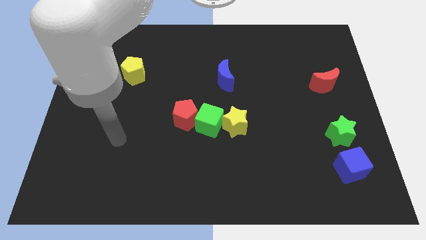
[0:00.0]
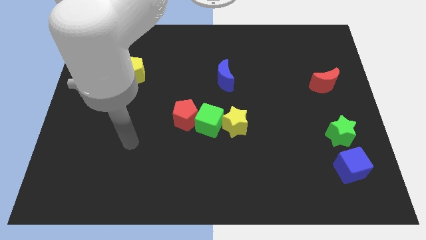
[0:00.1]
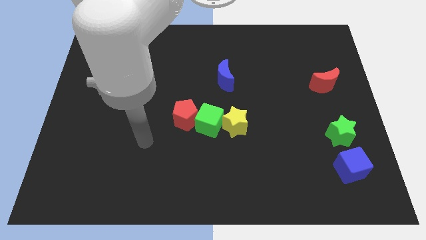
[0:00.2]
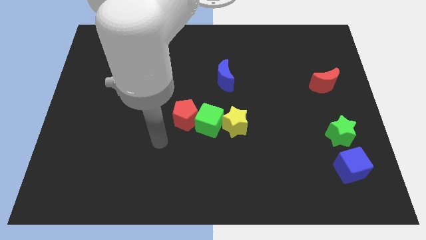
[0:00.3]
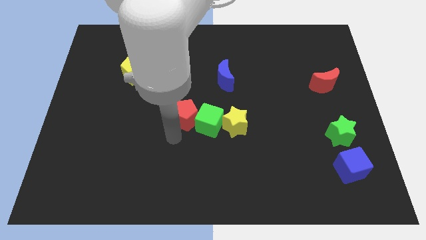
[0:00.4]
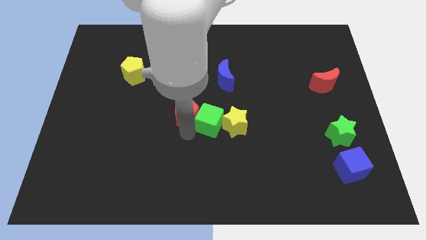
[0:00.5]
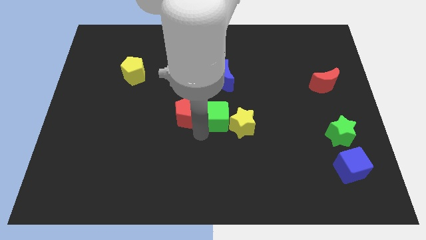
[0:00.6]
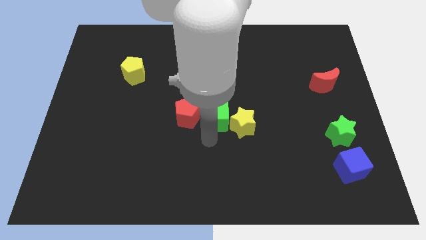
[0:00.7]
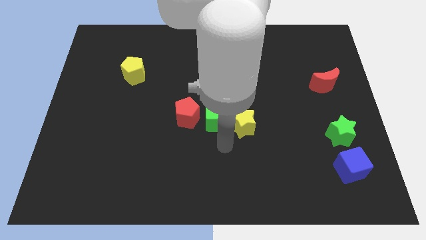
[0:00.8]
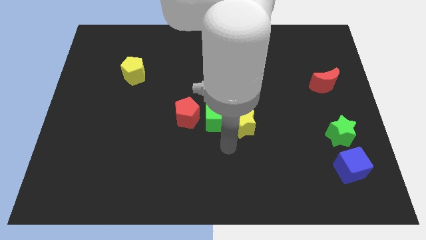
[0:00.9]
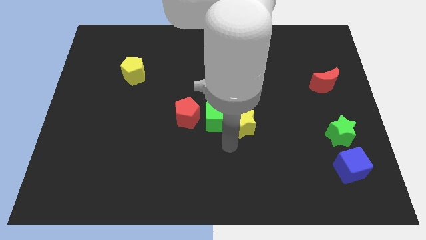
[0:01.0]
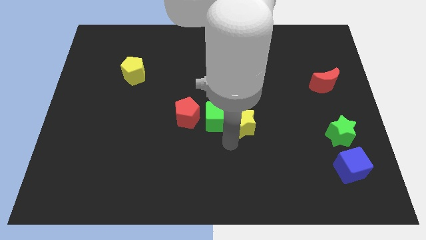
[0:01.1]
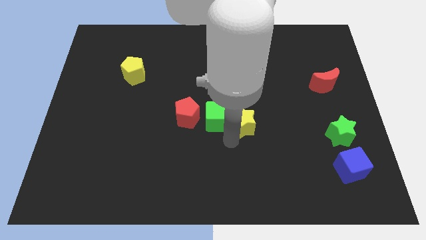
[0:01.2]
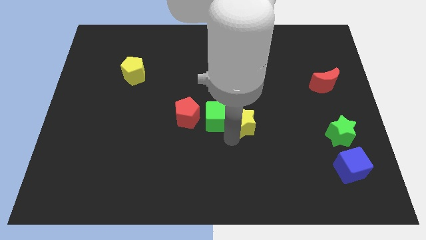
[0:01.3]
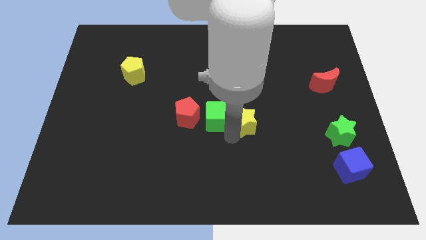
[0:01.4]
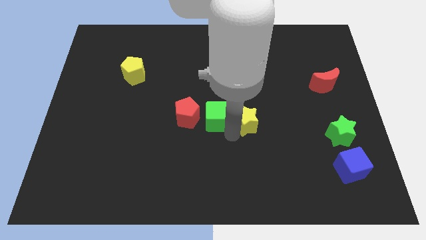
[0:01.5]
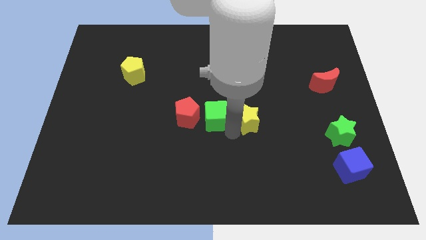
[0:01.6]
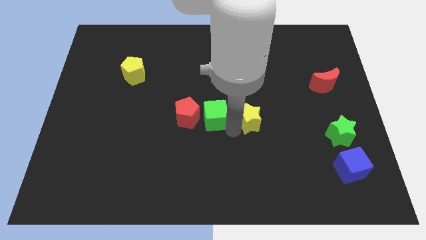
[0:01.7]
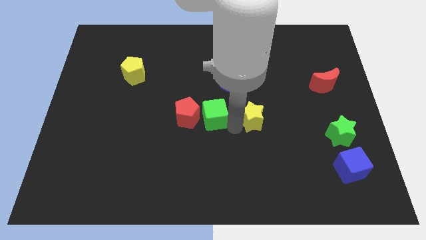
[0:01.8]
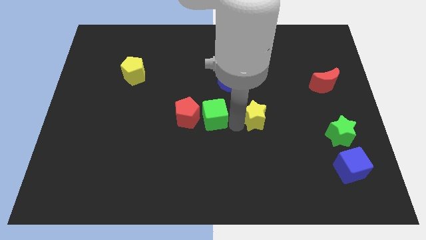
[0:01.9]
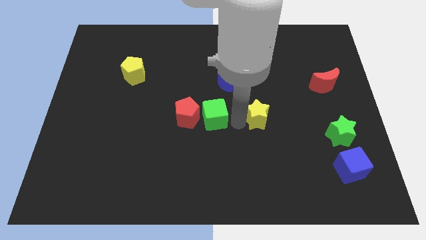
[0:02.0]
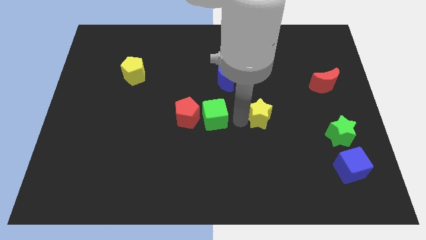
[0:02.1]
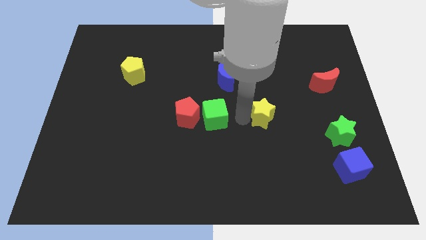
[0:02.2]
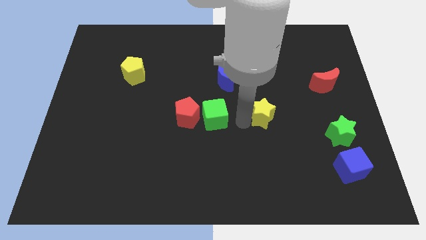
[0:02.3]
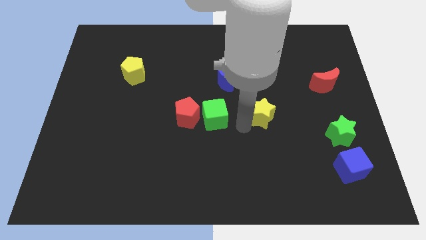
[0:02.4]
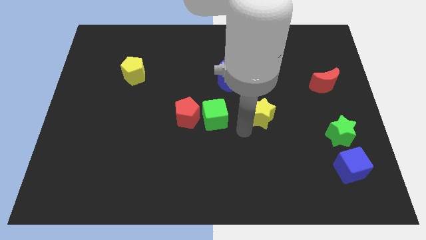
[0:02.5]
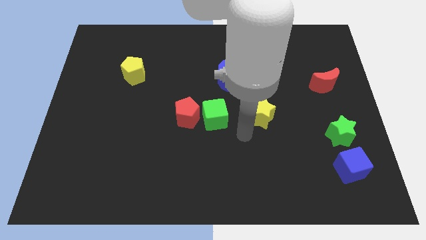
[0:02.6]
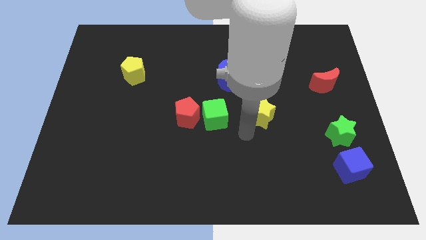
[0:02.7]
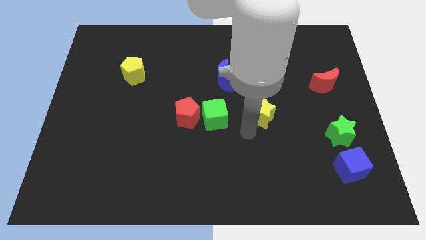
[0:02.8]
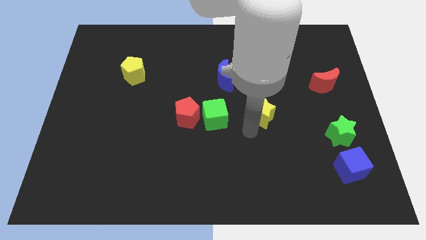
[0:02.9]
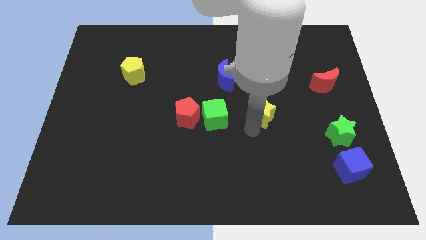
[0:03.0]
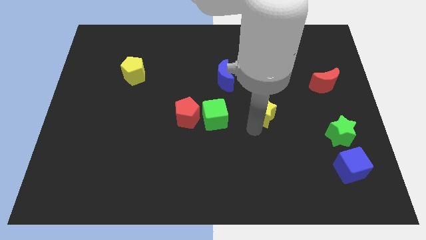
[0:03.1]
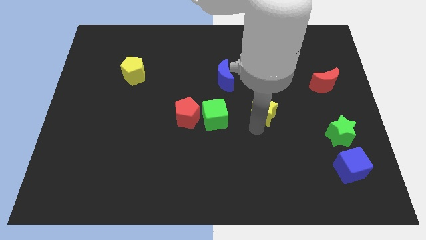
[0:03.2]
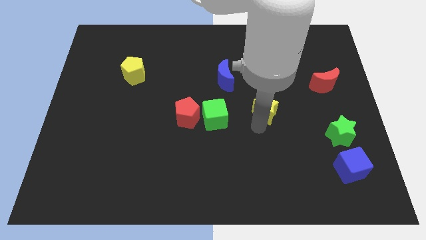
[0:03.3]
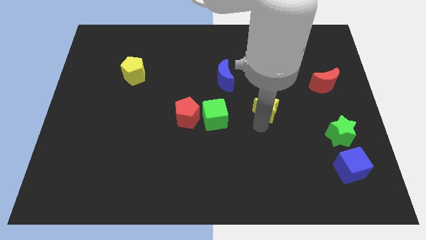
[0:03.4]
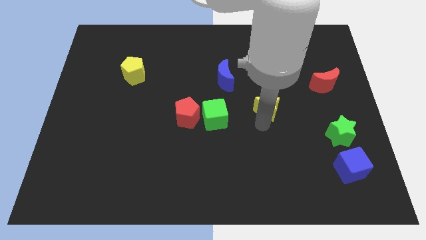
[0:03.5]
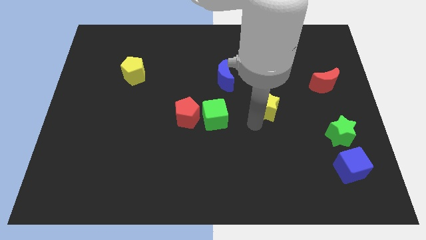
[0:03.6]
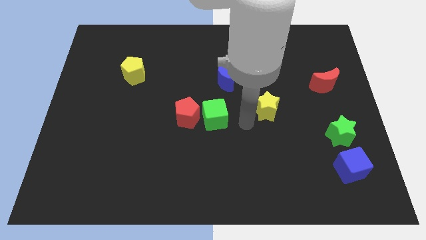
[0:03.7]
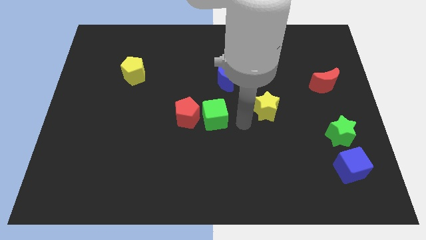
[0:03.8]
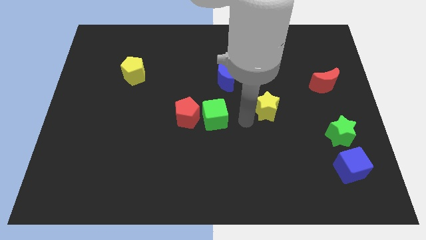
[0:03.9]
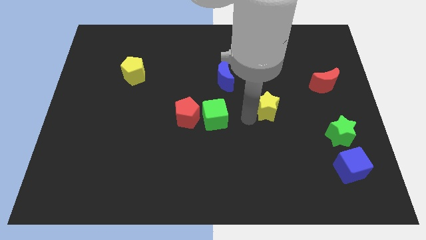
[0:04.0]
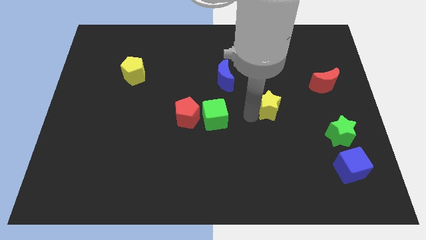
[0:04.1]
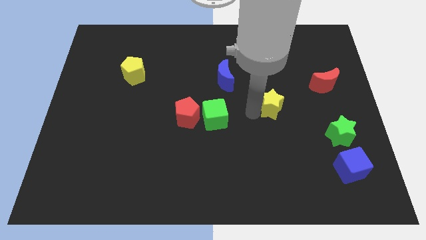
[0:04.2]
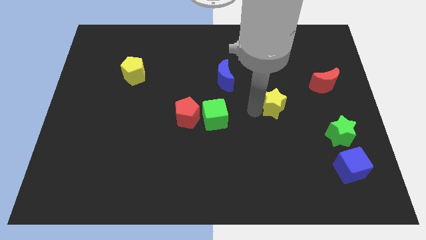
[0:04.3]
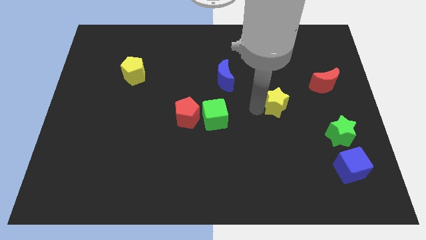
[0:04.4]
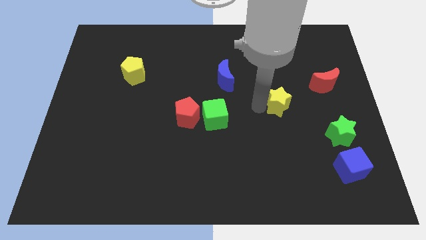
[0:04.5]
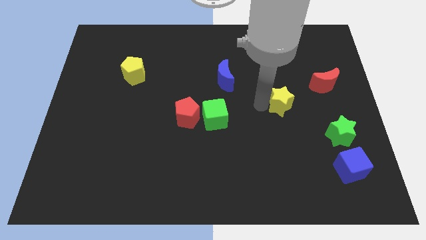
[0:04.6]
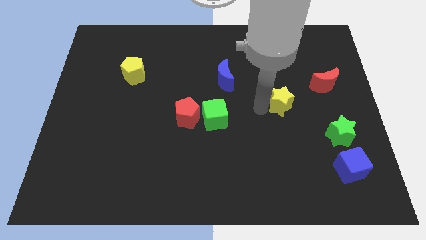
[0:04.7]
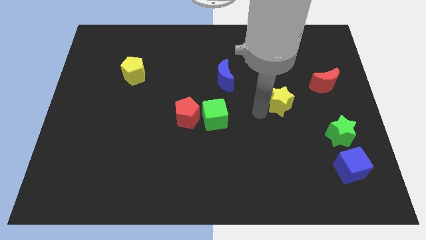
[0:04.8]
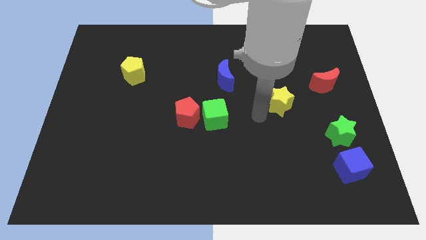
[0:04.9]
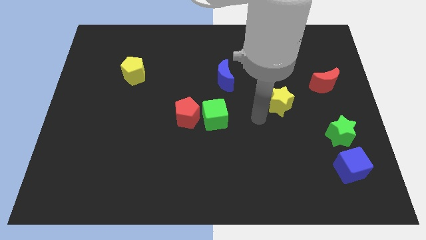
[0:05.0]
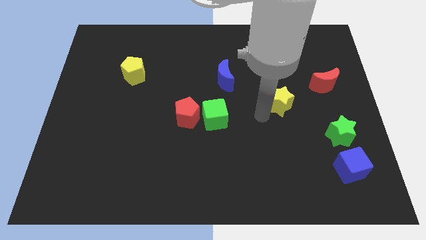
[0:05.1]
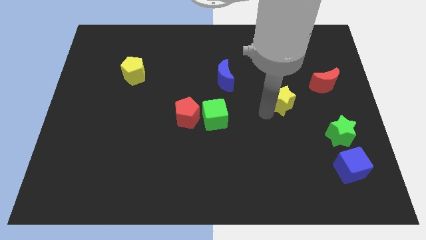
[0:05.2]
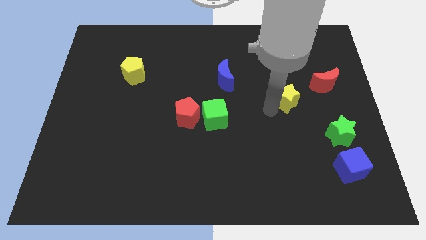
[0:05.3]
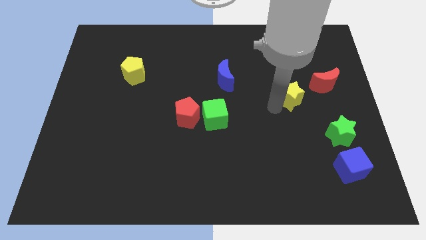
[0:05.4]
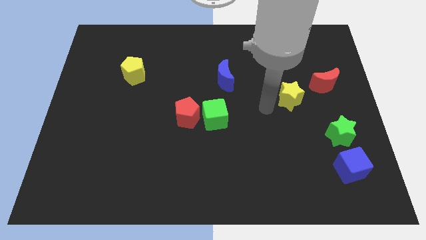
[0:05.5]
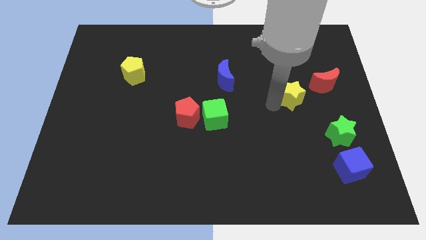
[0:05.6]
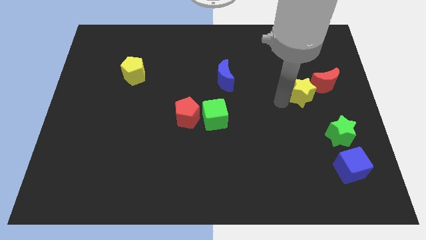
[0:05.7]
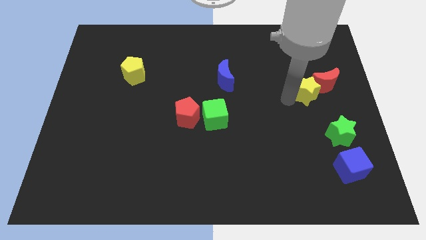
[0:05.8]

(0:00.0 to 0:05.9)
move the yellow star next to the red moon

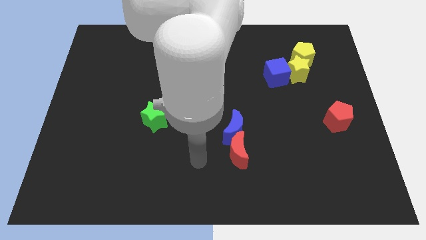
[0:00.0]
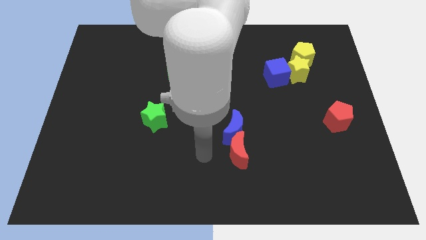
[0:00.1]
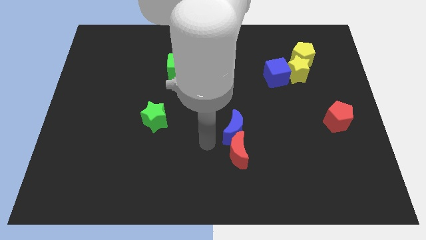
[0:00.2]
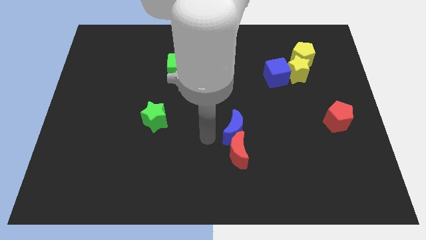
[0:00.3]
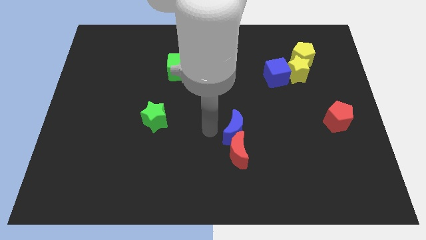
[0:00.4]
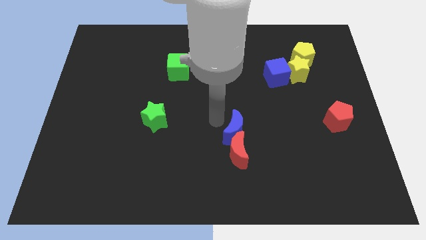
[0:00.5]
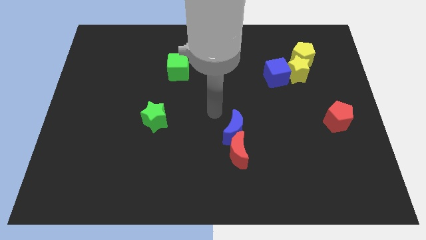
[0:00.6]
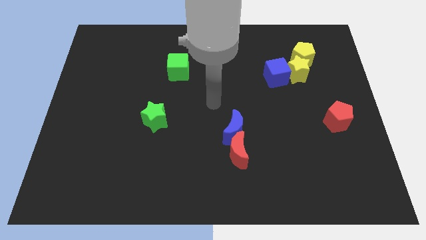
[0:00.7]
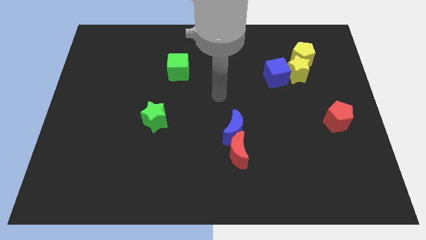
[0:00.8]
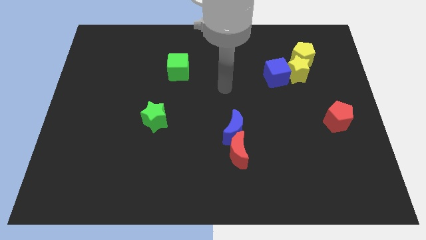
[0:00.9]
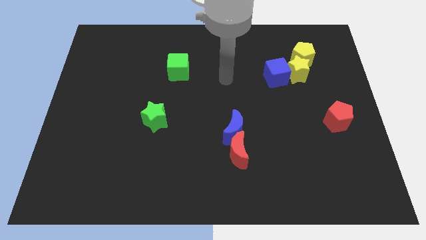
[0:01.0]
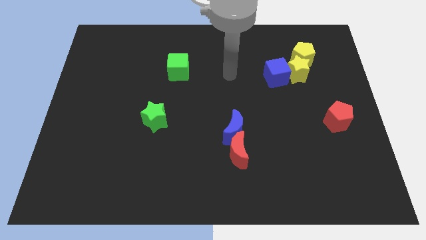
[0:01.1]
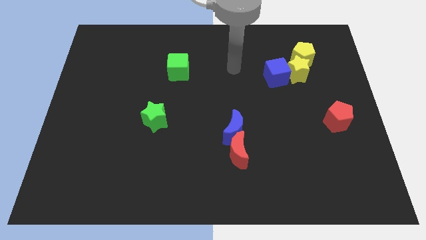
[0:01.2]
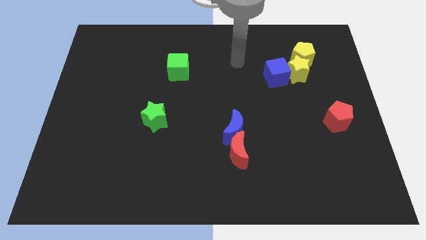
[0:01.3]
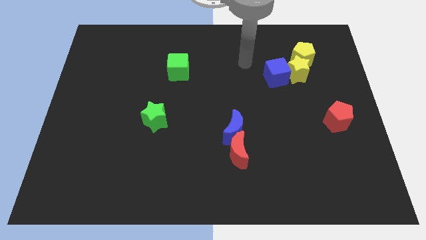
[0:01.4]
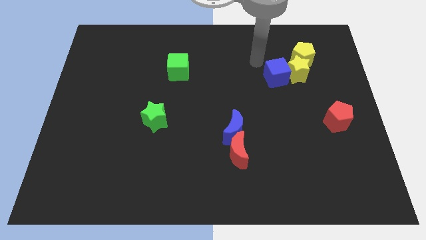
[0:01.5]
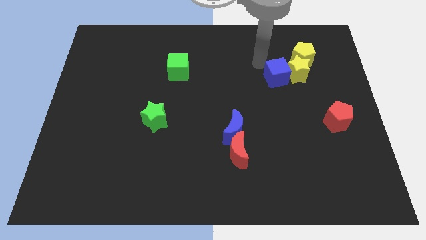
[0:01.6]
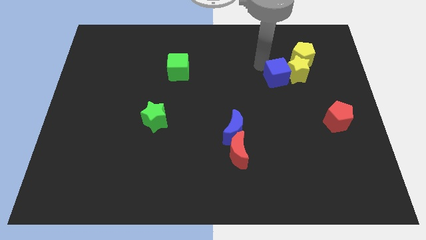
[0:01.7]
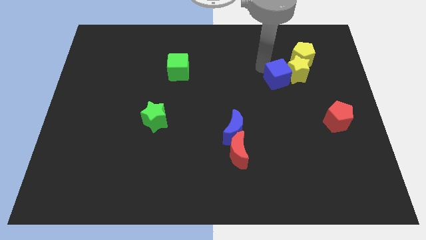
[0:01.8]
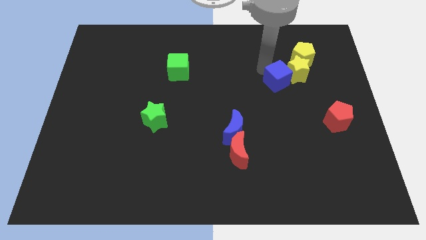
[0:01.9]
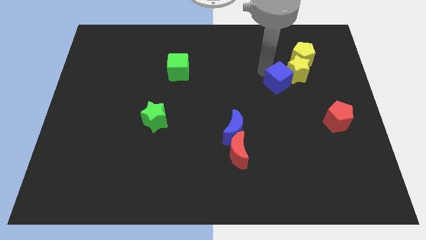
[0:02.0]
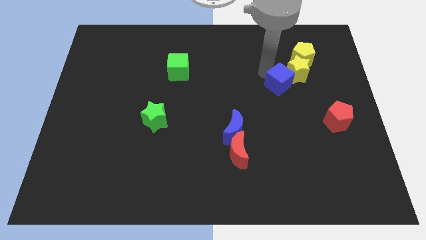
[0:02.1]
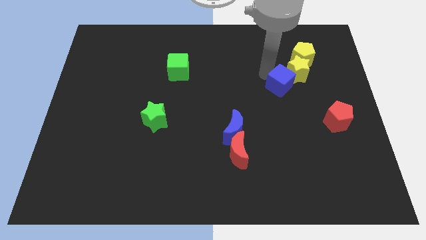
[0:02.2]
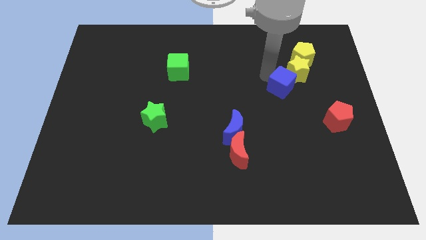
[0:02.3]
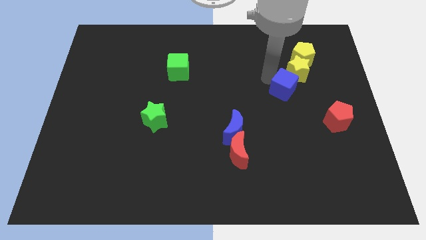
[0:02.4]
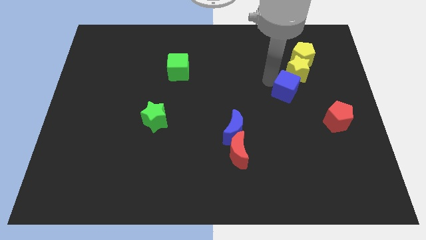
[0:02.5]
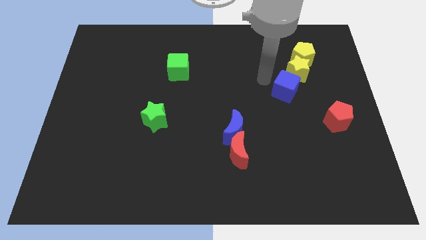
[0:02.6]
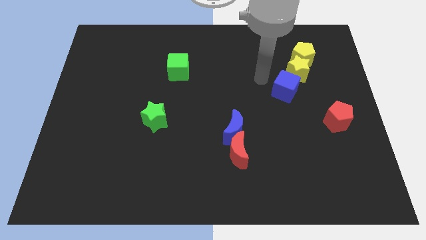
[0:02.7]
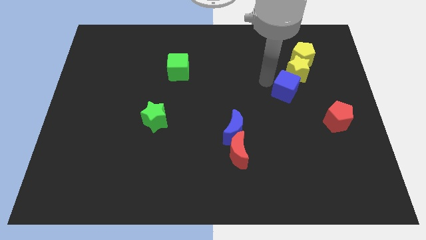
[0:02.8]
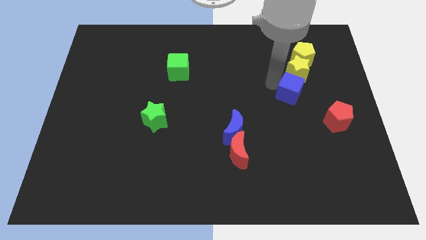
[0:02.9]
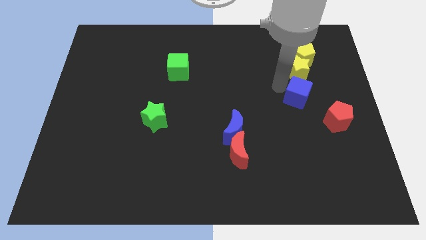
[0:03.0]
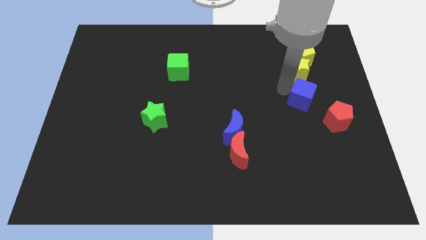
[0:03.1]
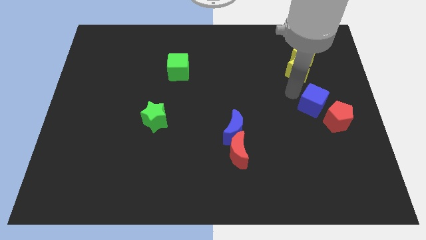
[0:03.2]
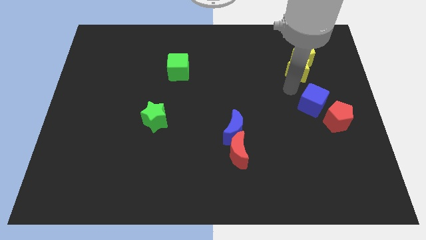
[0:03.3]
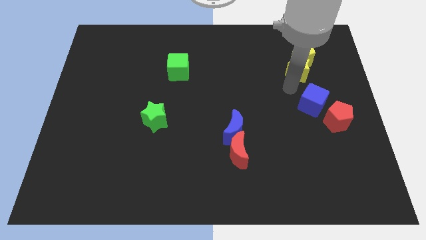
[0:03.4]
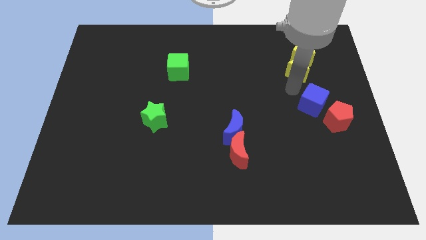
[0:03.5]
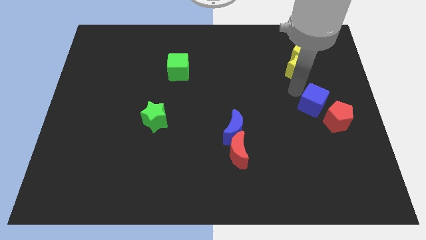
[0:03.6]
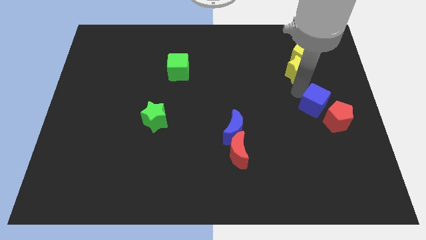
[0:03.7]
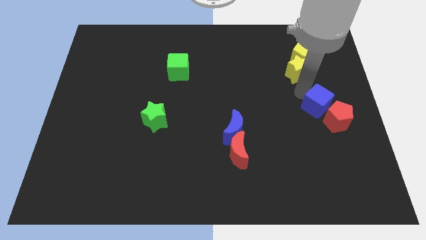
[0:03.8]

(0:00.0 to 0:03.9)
move the blue cube close to the red pentagon
